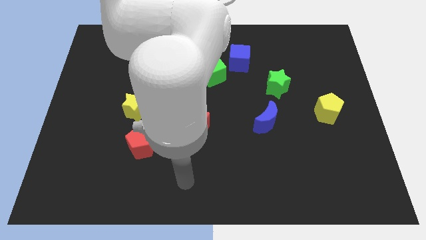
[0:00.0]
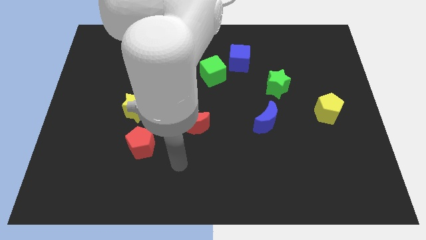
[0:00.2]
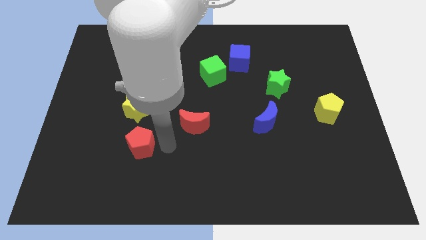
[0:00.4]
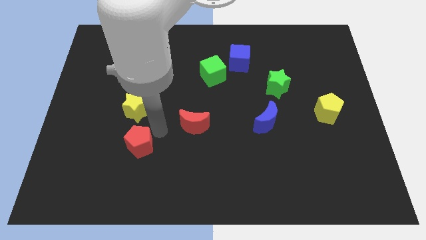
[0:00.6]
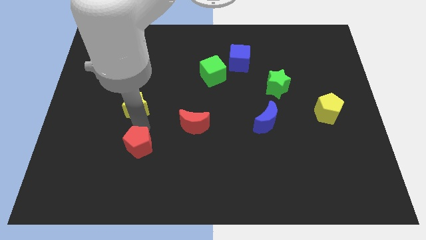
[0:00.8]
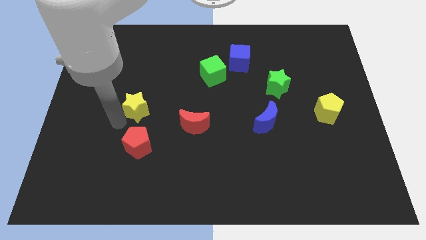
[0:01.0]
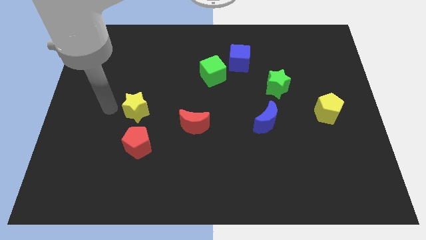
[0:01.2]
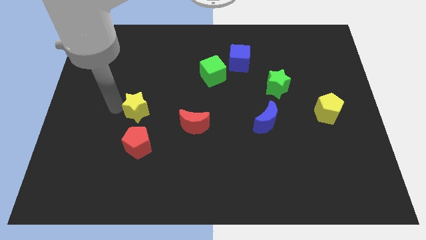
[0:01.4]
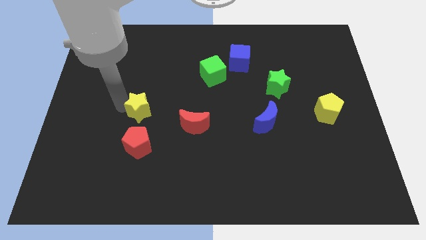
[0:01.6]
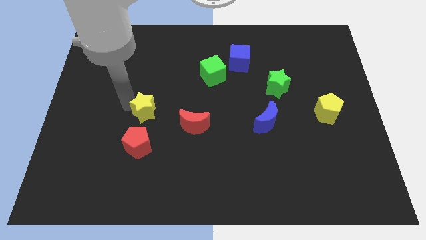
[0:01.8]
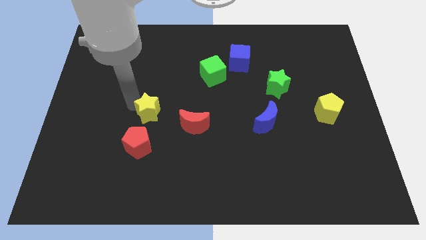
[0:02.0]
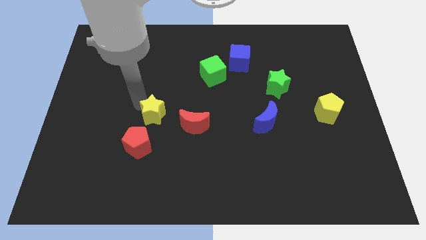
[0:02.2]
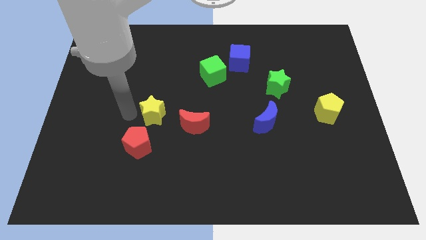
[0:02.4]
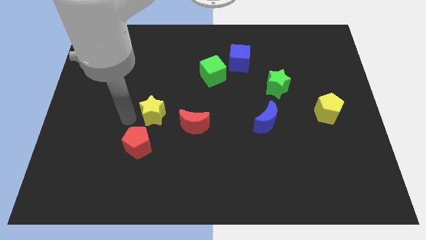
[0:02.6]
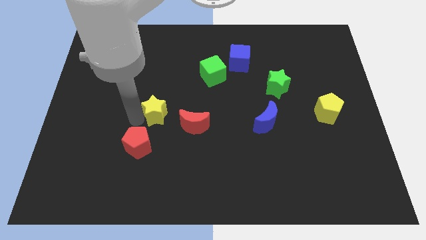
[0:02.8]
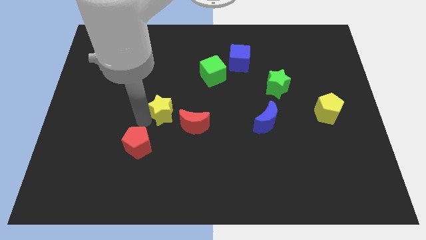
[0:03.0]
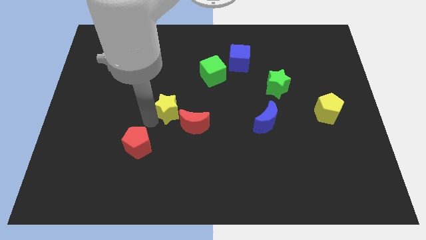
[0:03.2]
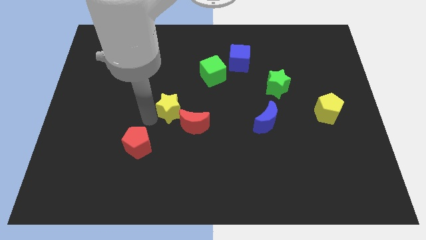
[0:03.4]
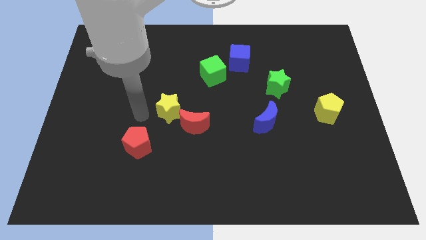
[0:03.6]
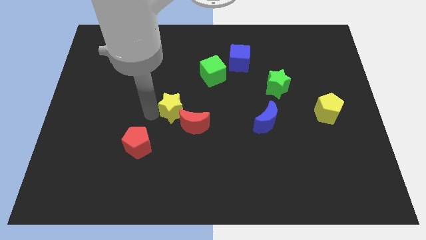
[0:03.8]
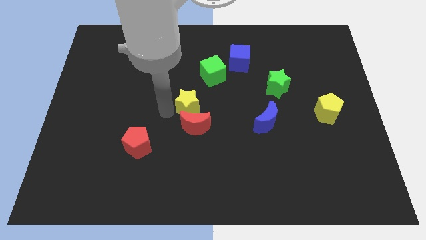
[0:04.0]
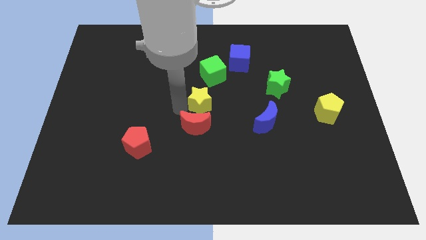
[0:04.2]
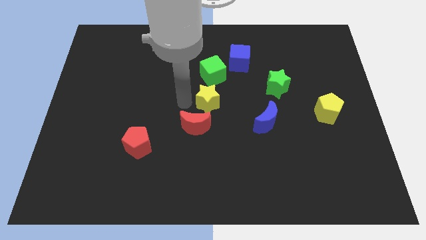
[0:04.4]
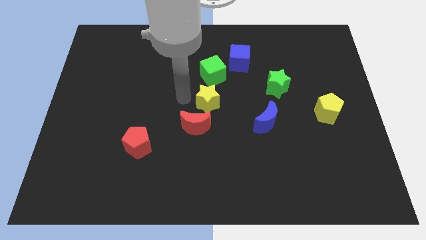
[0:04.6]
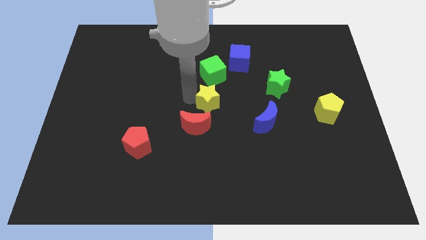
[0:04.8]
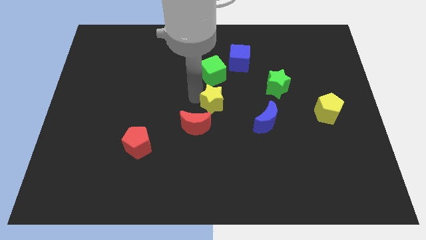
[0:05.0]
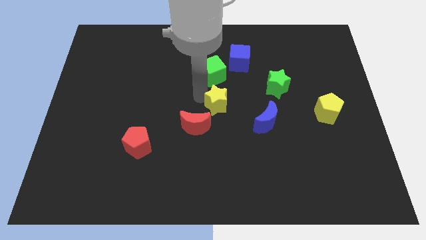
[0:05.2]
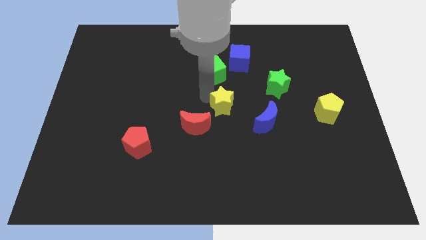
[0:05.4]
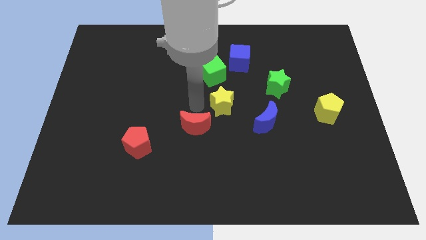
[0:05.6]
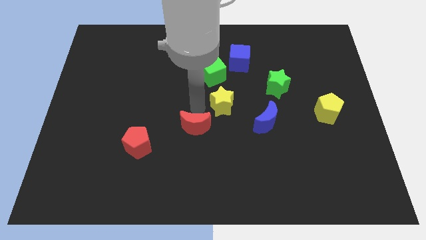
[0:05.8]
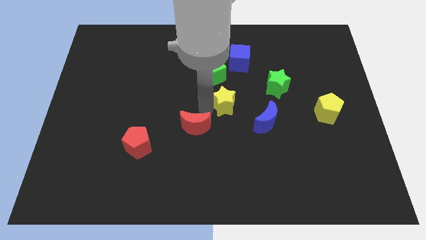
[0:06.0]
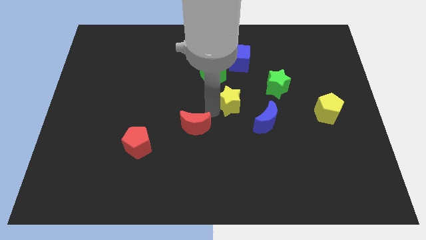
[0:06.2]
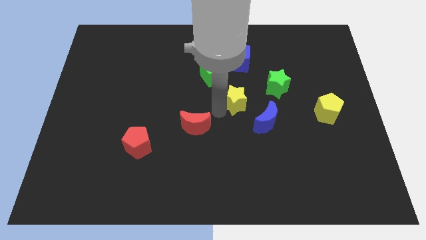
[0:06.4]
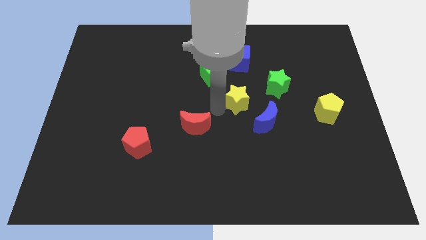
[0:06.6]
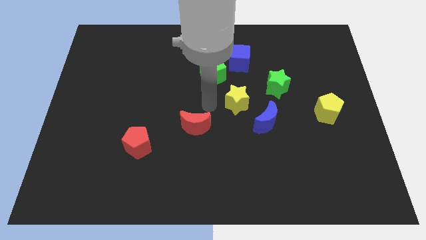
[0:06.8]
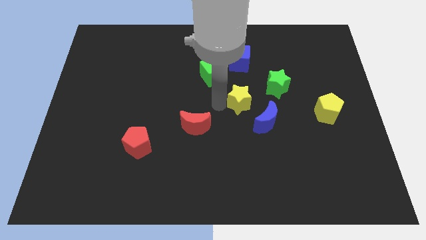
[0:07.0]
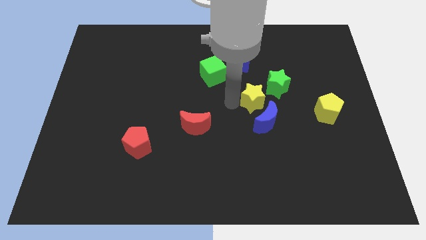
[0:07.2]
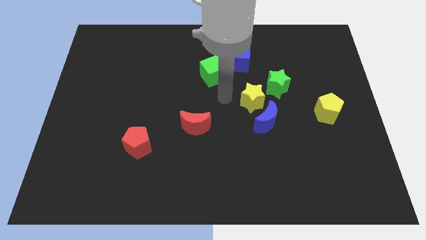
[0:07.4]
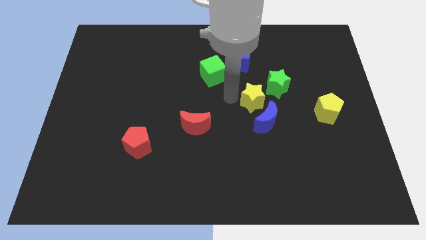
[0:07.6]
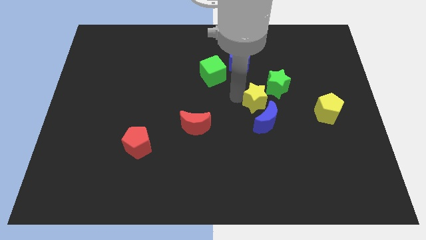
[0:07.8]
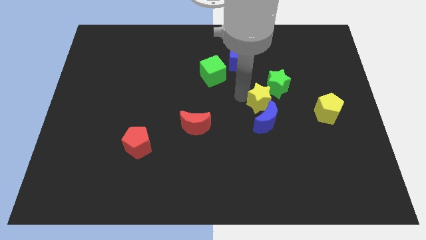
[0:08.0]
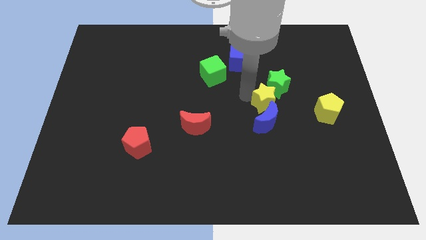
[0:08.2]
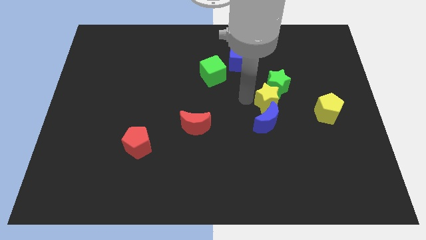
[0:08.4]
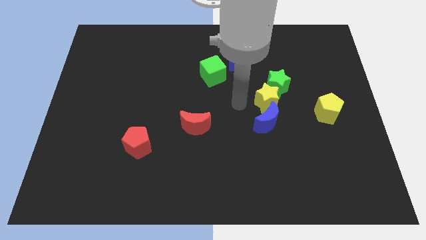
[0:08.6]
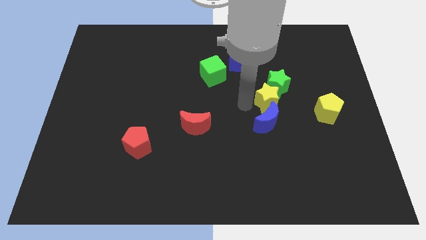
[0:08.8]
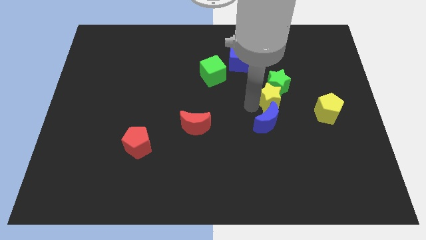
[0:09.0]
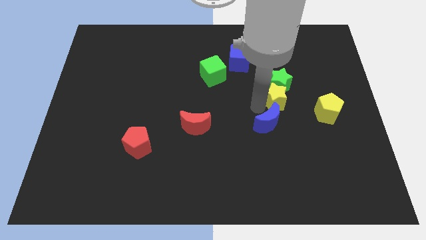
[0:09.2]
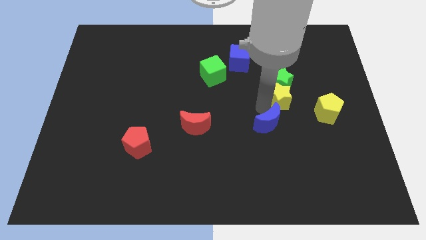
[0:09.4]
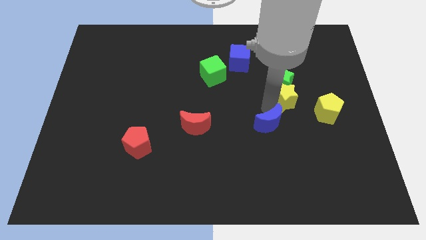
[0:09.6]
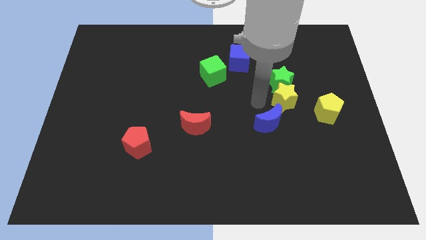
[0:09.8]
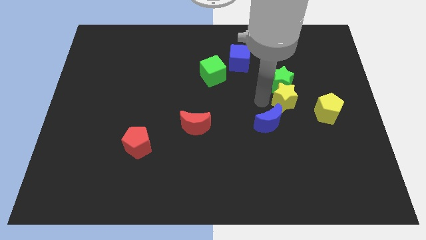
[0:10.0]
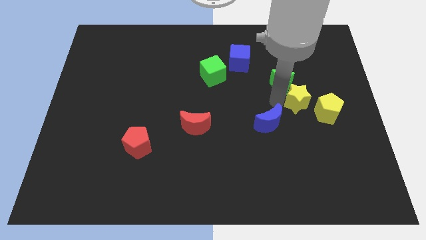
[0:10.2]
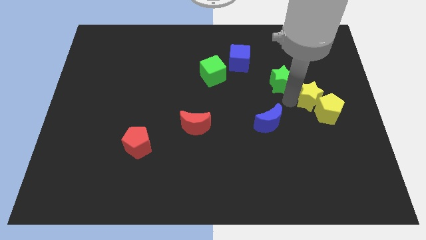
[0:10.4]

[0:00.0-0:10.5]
move the yellow star to the yellow pentagon

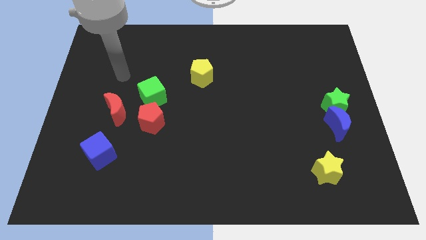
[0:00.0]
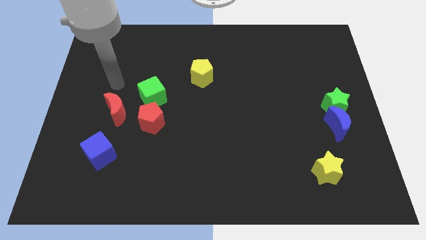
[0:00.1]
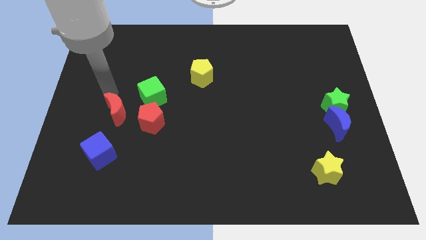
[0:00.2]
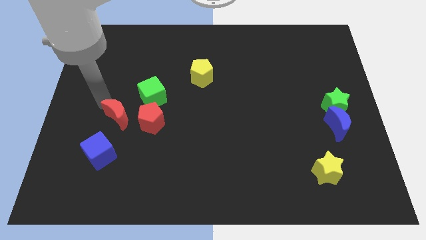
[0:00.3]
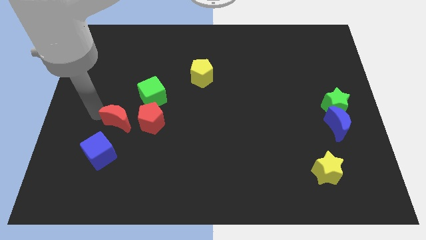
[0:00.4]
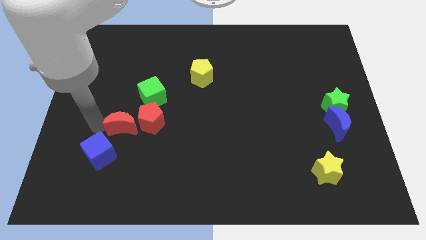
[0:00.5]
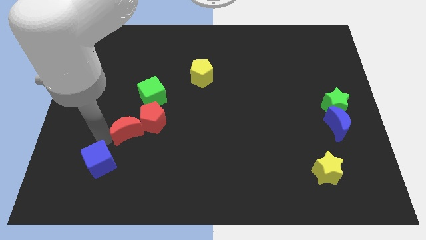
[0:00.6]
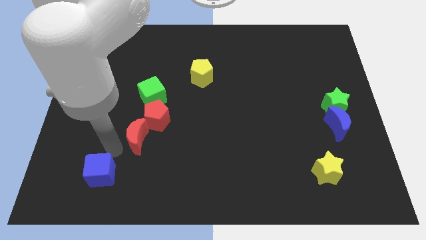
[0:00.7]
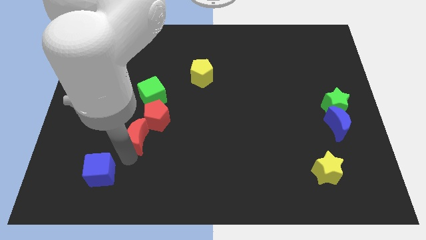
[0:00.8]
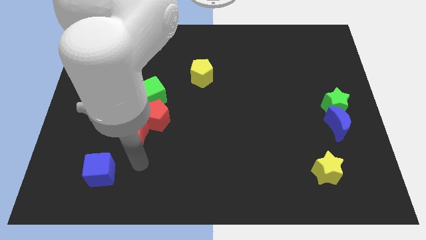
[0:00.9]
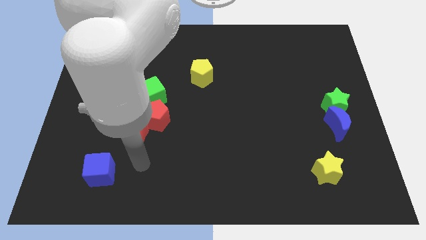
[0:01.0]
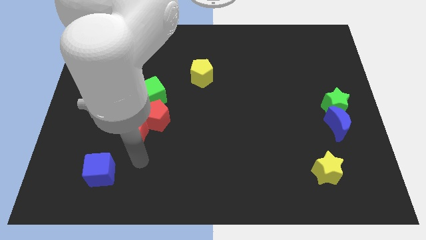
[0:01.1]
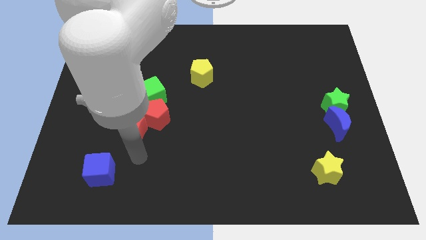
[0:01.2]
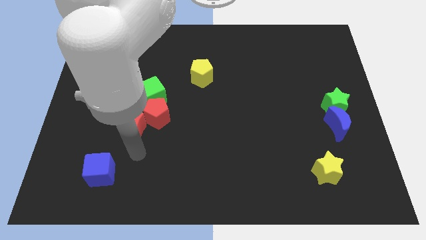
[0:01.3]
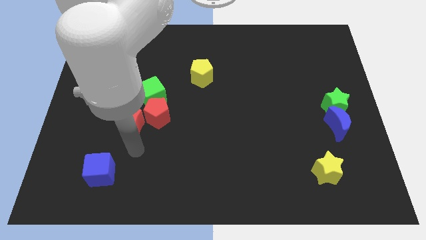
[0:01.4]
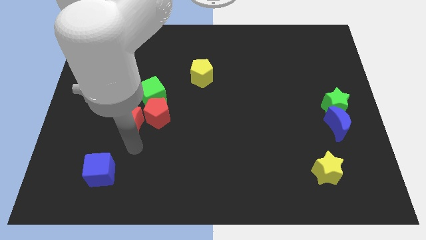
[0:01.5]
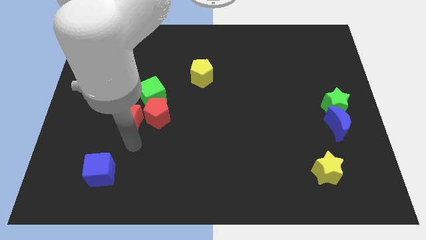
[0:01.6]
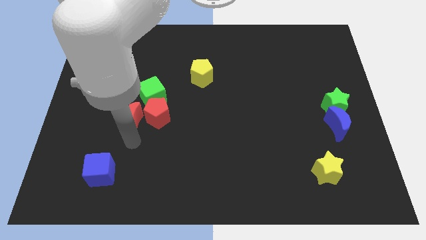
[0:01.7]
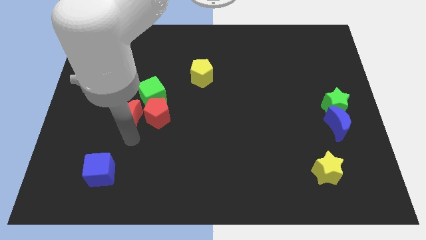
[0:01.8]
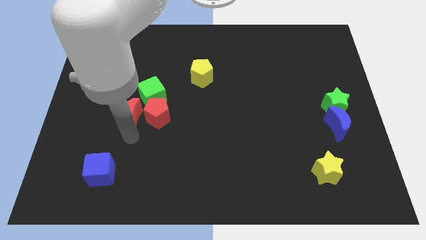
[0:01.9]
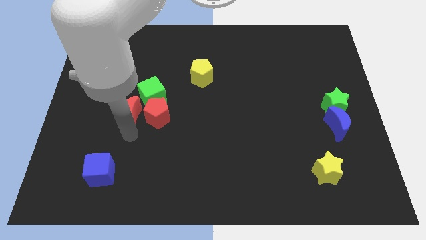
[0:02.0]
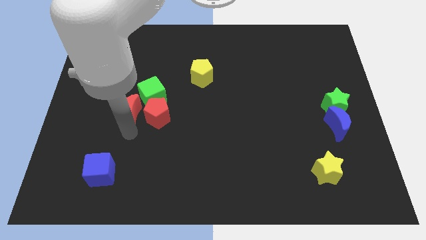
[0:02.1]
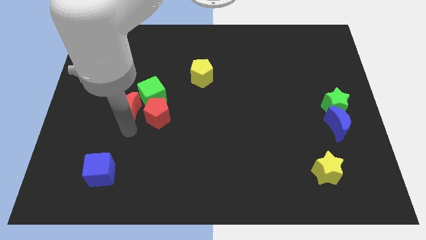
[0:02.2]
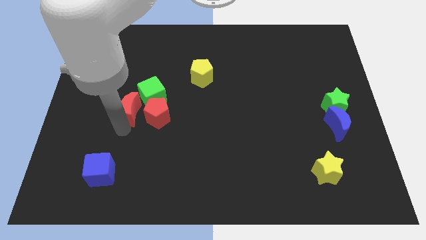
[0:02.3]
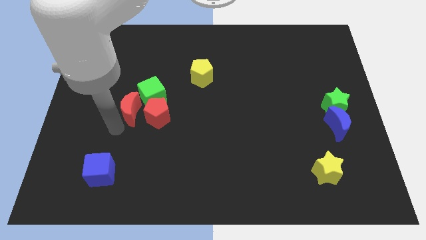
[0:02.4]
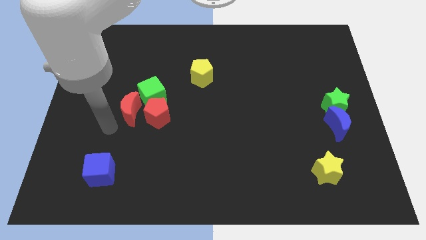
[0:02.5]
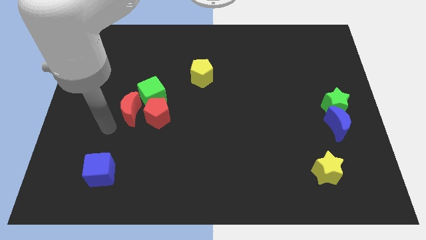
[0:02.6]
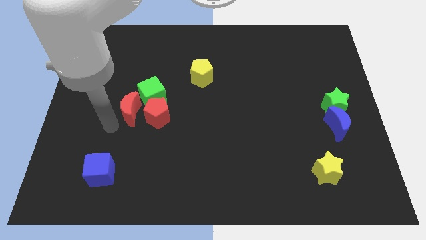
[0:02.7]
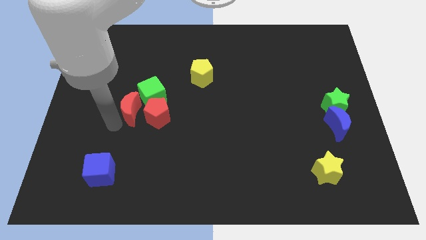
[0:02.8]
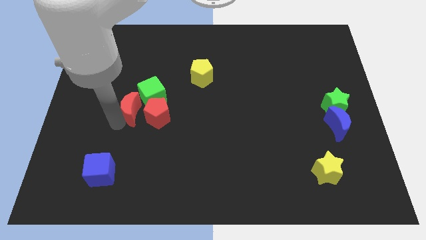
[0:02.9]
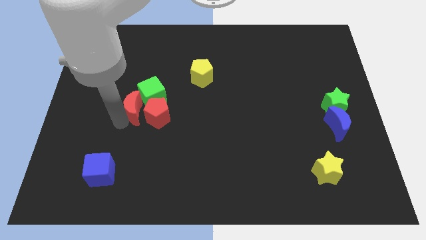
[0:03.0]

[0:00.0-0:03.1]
push the red moon next to the green cube
